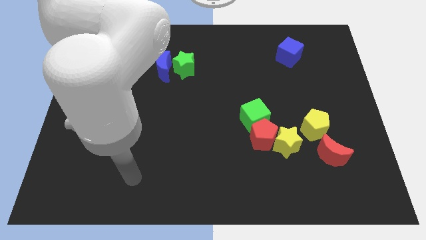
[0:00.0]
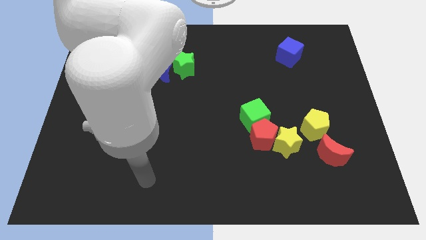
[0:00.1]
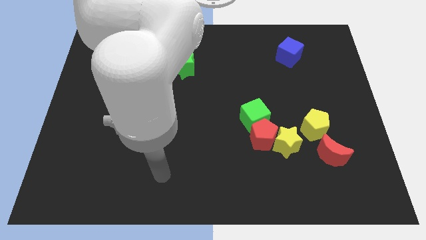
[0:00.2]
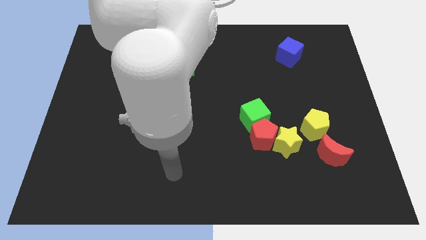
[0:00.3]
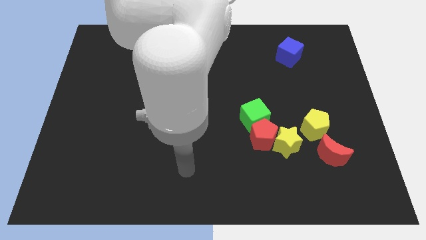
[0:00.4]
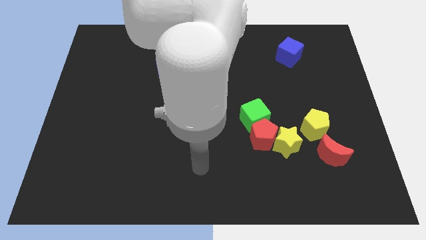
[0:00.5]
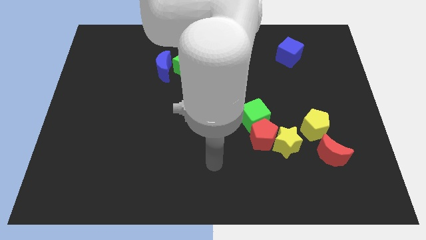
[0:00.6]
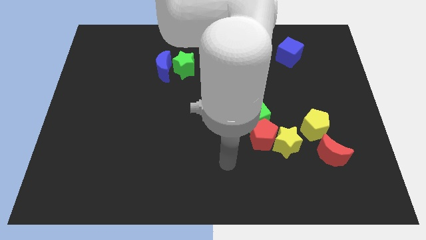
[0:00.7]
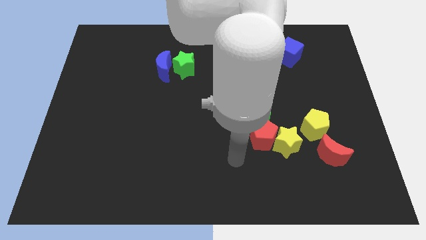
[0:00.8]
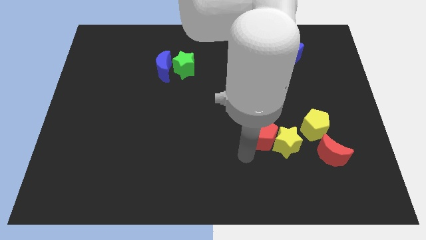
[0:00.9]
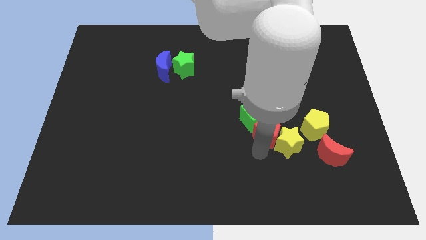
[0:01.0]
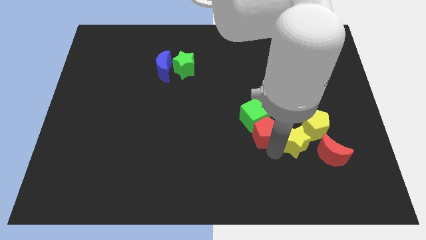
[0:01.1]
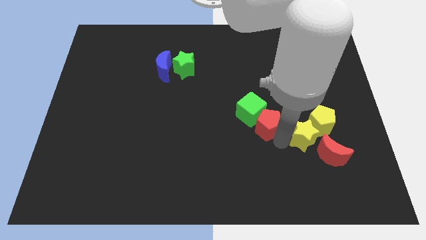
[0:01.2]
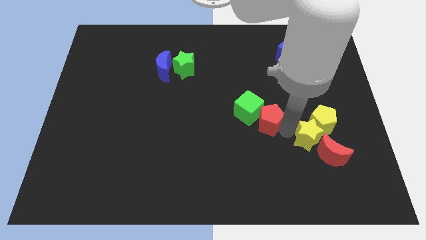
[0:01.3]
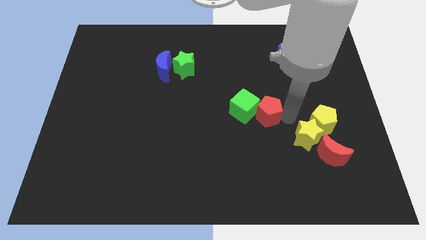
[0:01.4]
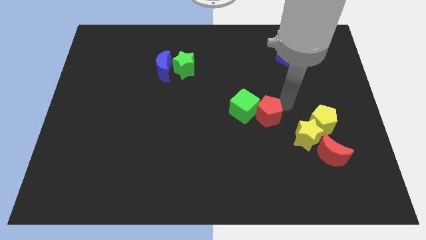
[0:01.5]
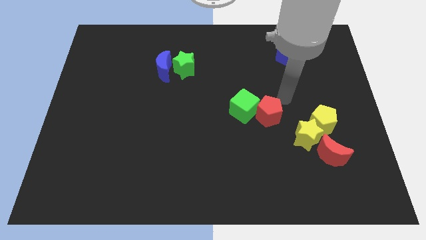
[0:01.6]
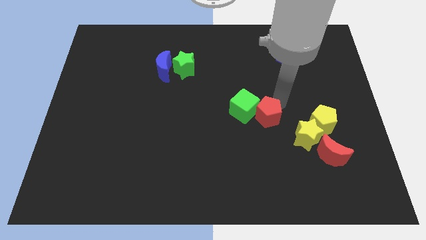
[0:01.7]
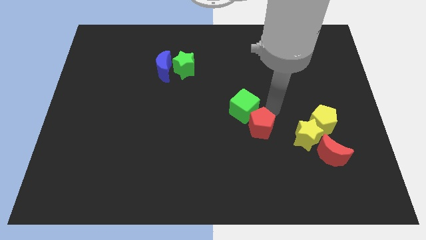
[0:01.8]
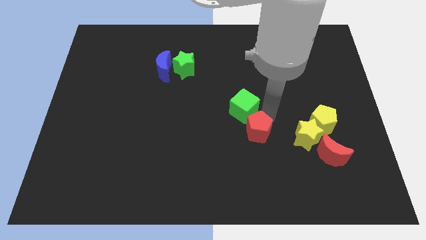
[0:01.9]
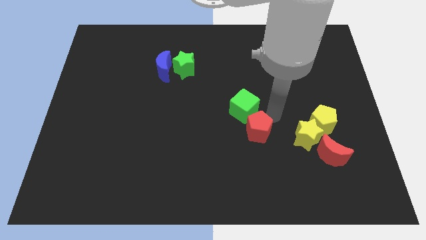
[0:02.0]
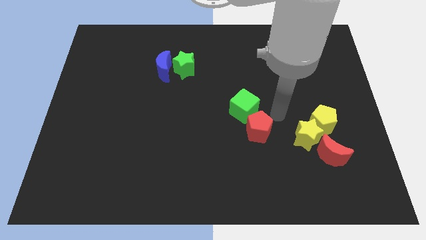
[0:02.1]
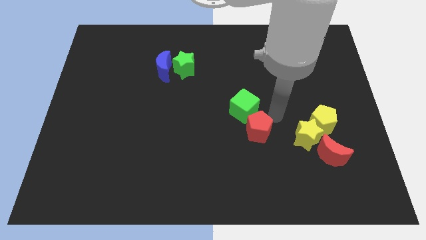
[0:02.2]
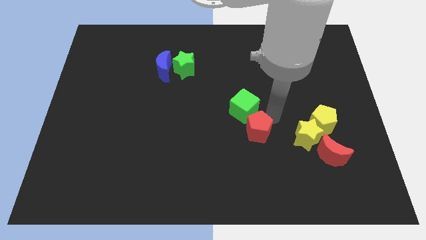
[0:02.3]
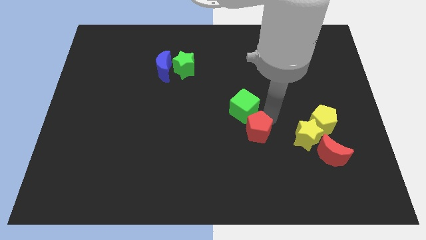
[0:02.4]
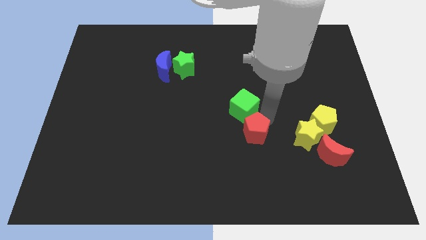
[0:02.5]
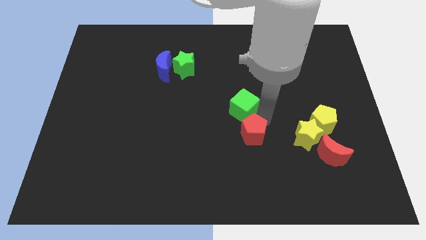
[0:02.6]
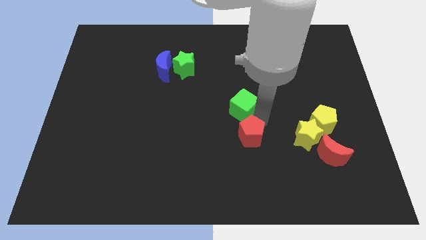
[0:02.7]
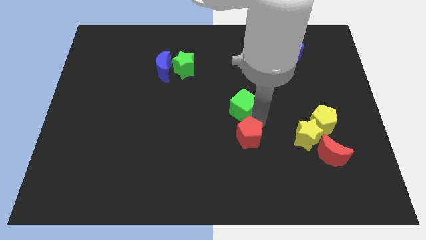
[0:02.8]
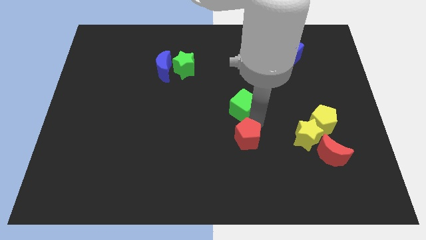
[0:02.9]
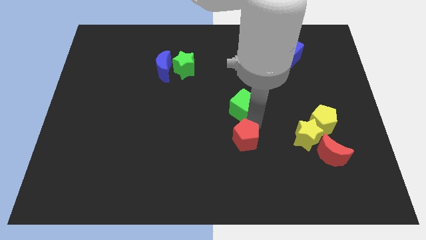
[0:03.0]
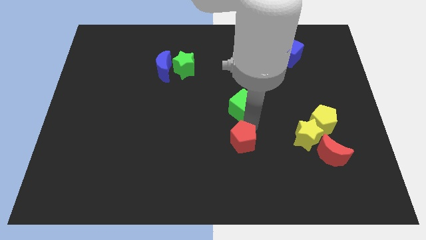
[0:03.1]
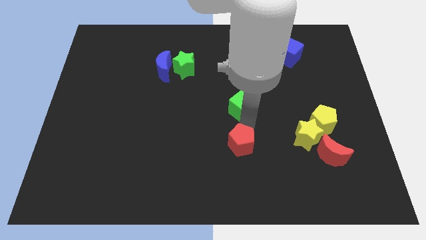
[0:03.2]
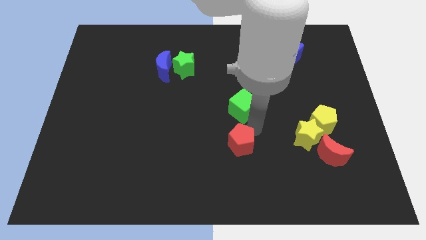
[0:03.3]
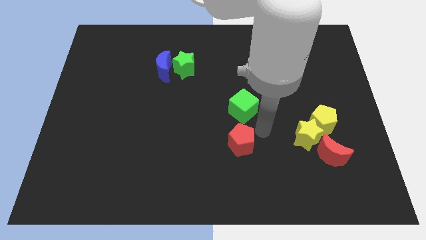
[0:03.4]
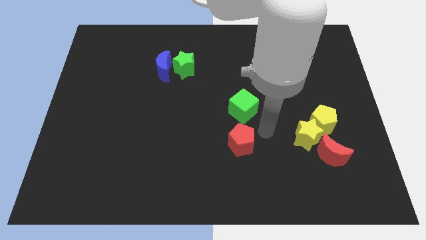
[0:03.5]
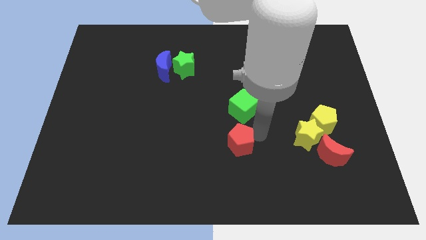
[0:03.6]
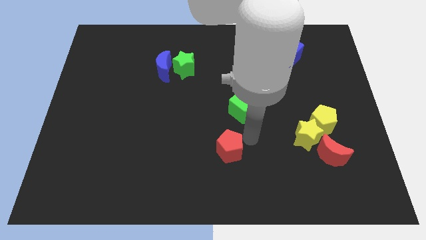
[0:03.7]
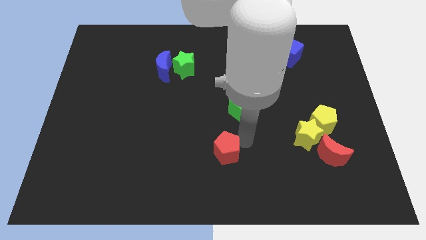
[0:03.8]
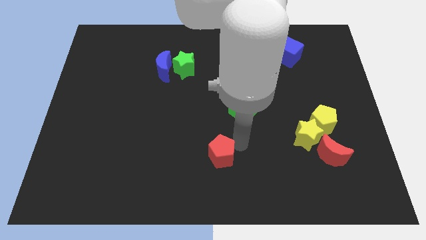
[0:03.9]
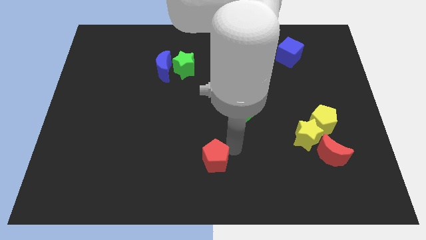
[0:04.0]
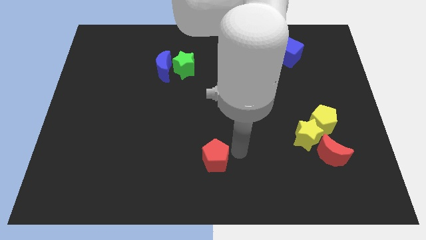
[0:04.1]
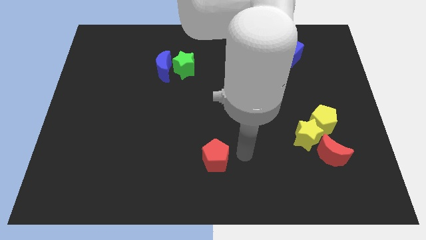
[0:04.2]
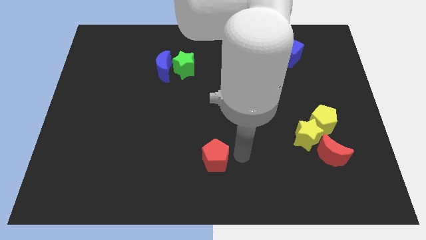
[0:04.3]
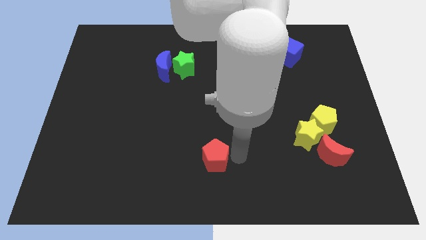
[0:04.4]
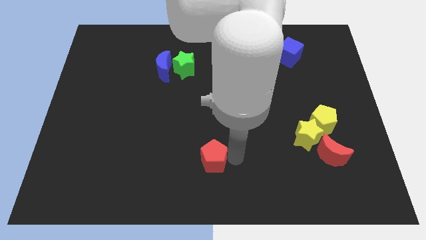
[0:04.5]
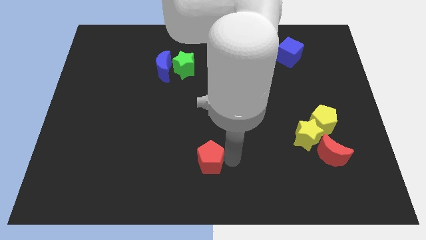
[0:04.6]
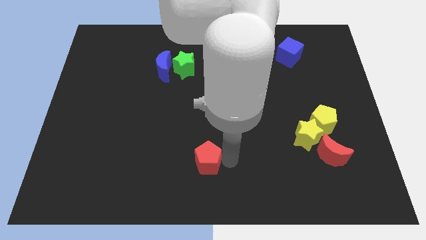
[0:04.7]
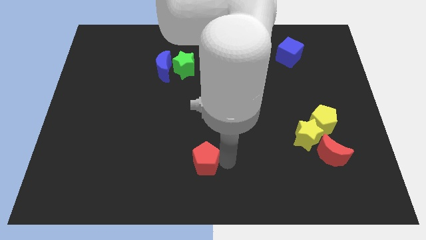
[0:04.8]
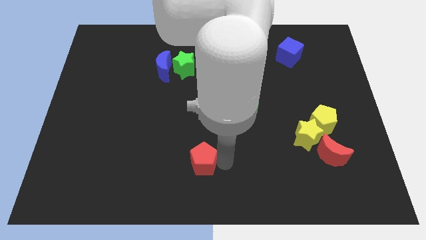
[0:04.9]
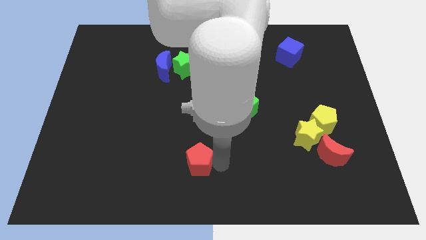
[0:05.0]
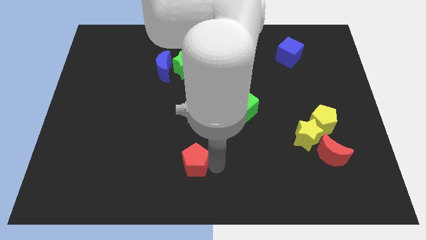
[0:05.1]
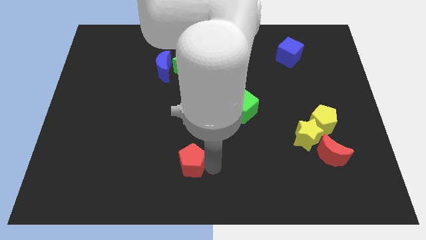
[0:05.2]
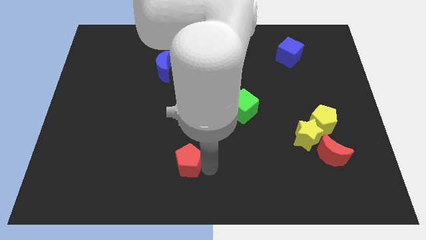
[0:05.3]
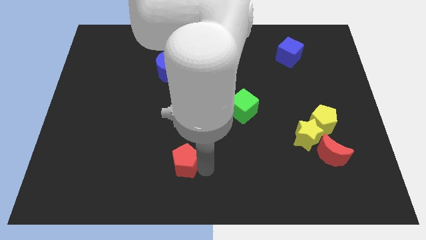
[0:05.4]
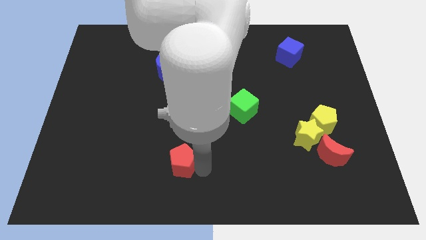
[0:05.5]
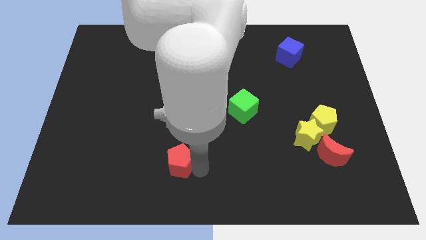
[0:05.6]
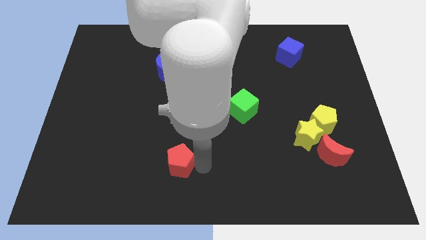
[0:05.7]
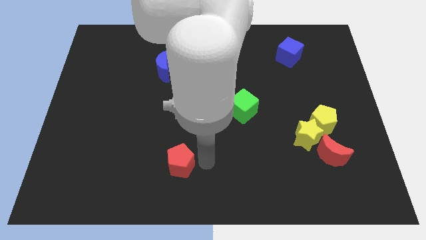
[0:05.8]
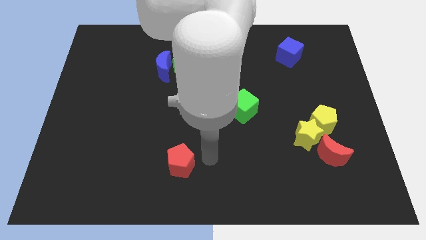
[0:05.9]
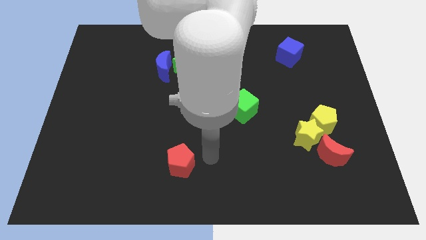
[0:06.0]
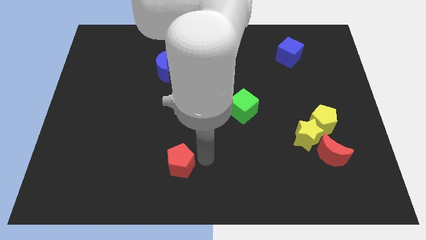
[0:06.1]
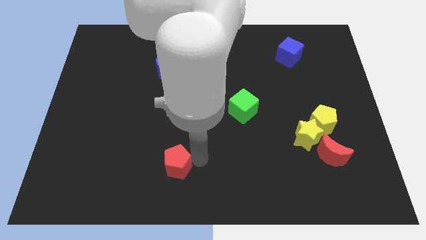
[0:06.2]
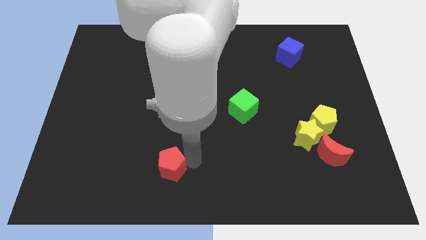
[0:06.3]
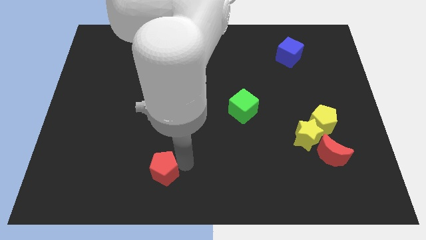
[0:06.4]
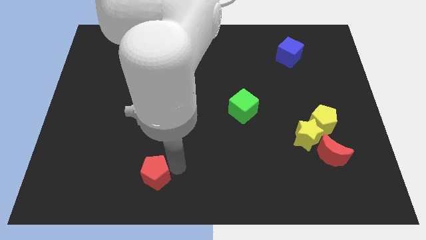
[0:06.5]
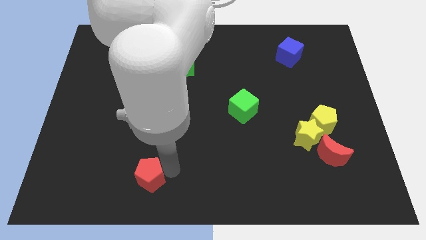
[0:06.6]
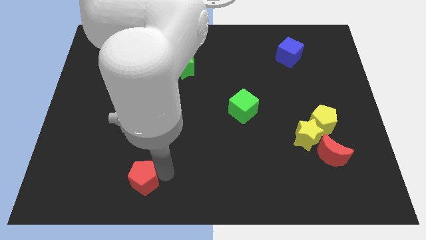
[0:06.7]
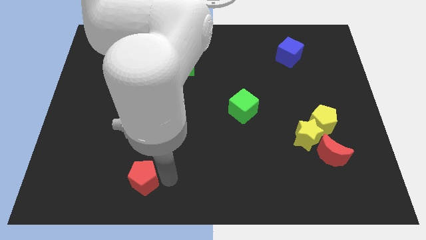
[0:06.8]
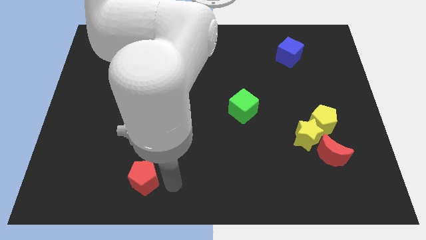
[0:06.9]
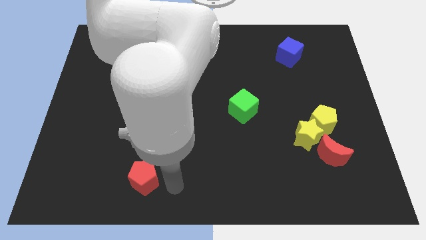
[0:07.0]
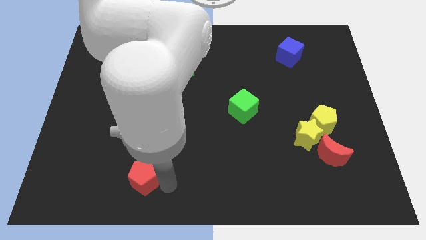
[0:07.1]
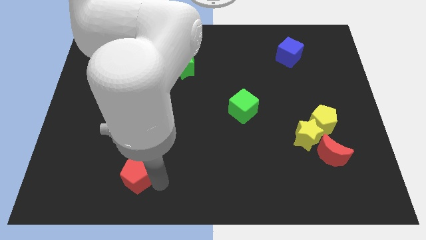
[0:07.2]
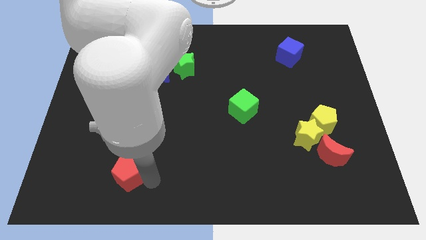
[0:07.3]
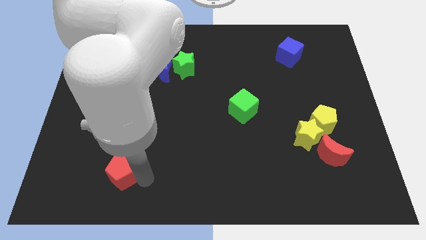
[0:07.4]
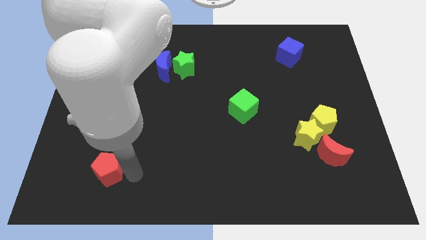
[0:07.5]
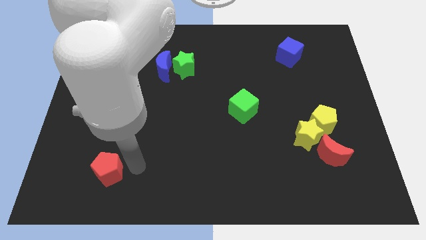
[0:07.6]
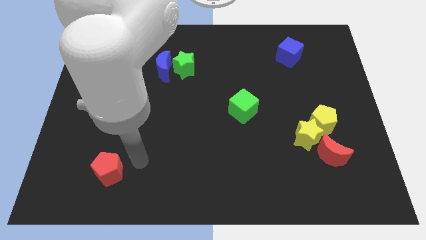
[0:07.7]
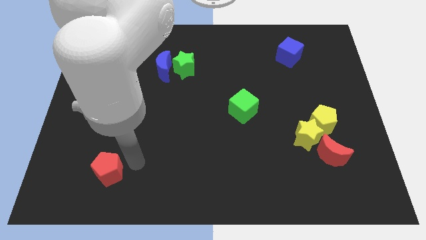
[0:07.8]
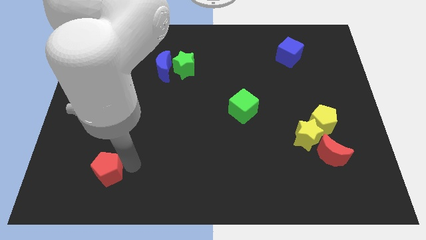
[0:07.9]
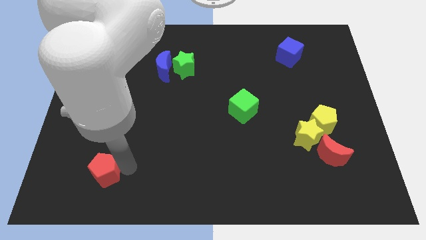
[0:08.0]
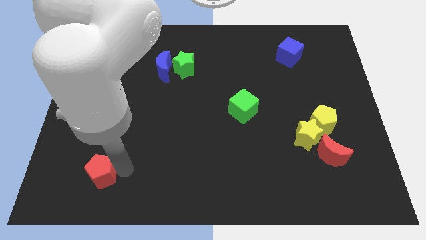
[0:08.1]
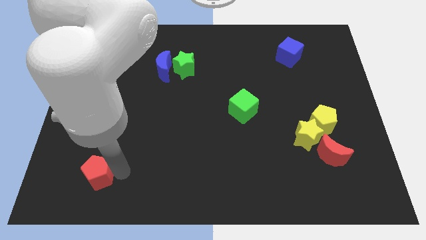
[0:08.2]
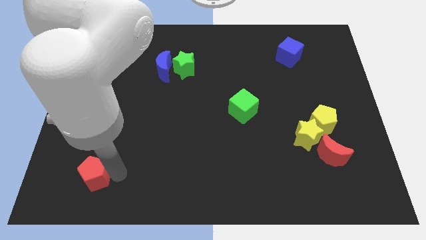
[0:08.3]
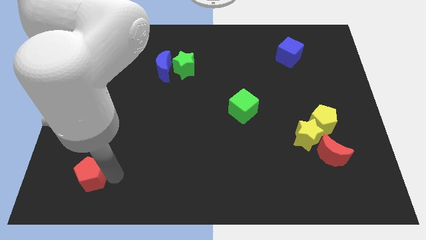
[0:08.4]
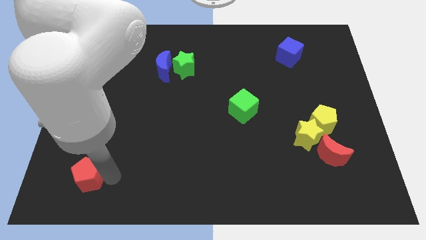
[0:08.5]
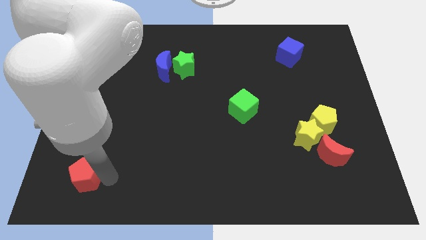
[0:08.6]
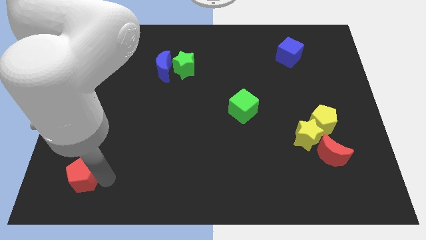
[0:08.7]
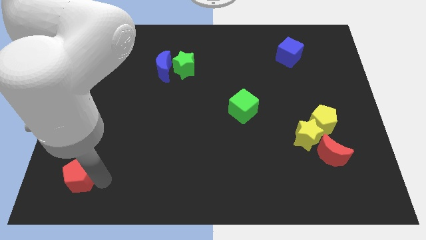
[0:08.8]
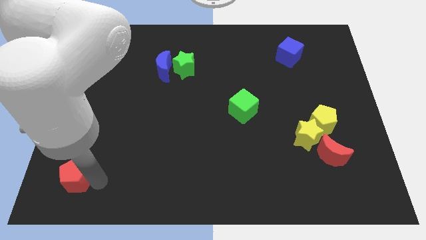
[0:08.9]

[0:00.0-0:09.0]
move the red pentagon to the bottom left of the board
